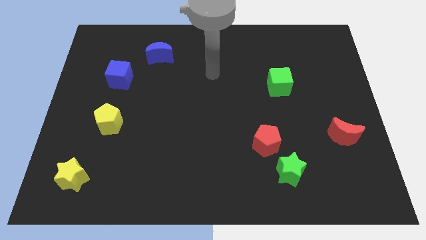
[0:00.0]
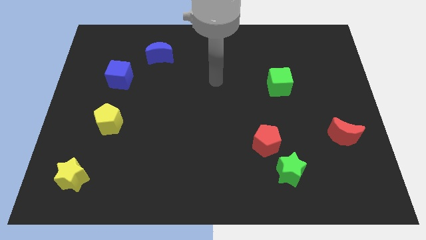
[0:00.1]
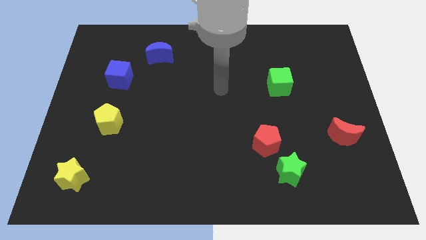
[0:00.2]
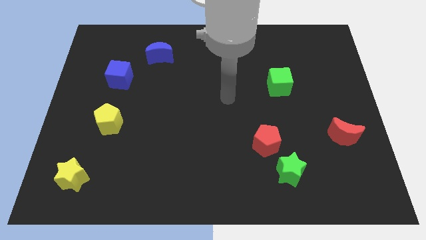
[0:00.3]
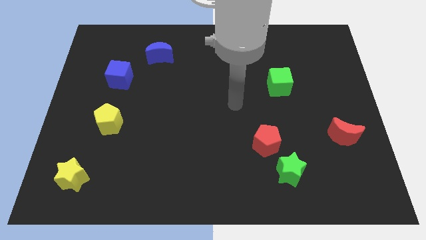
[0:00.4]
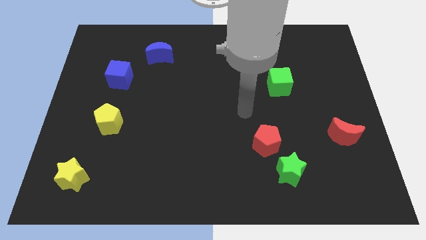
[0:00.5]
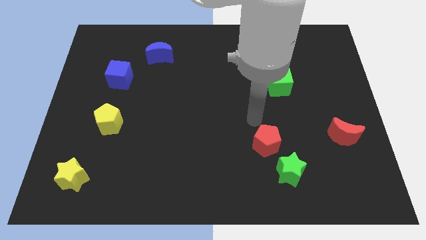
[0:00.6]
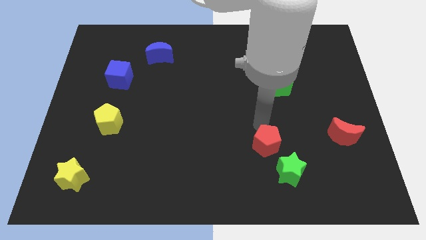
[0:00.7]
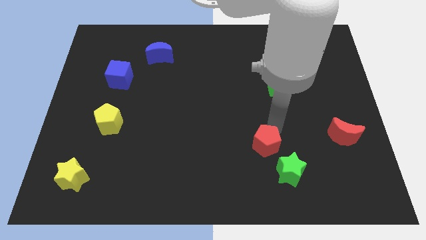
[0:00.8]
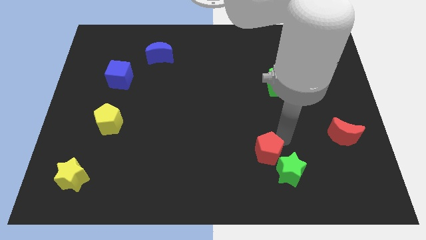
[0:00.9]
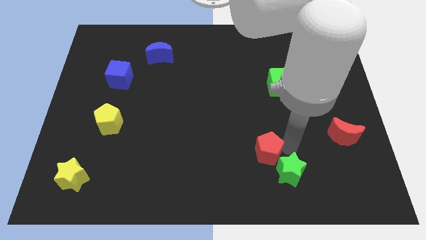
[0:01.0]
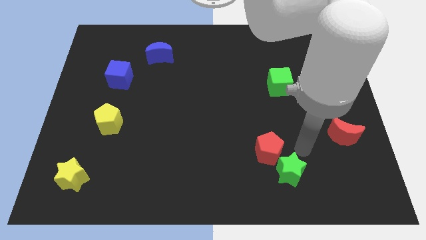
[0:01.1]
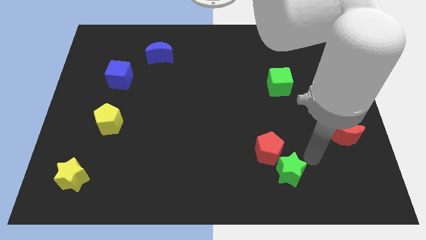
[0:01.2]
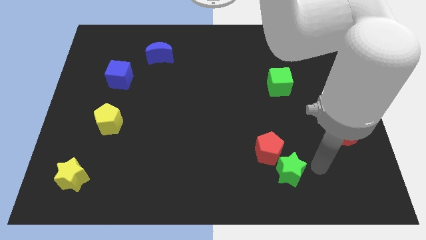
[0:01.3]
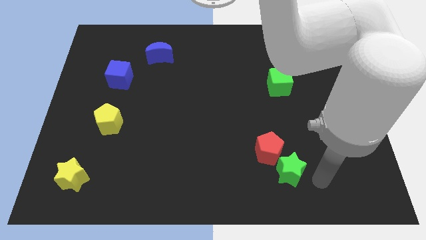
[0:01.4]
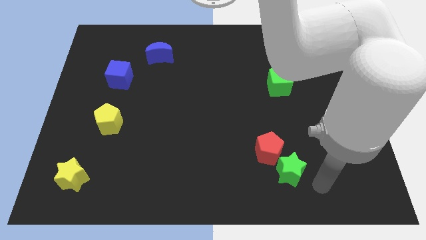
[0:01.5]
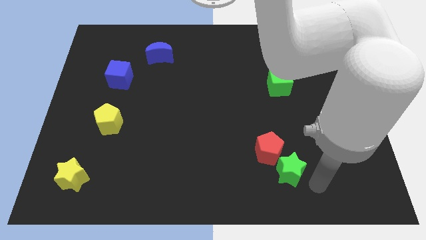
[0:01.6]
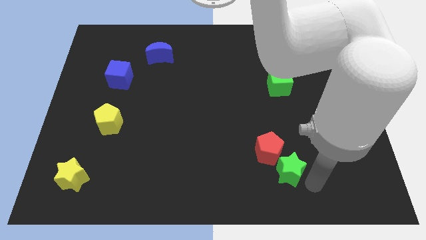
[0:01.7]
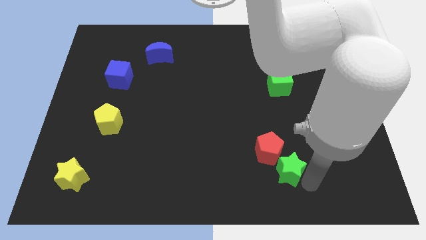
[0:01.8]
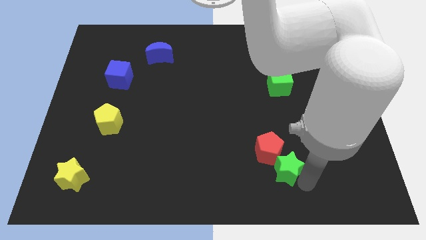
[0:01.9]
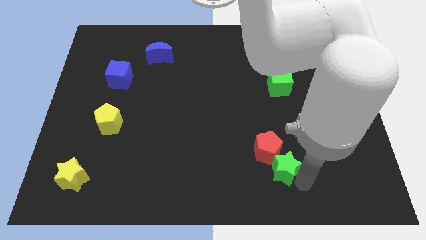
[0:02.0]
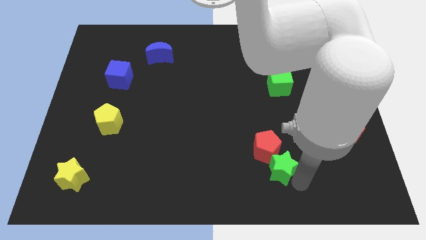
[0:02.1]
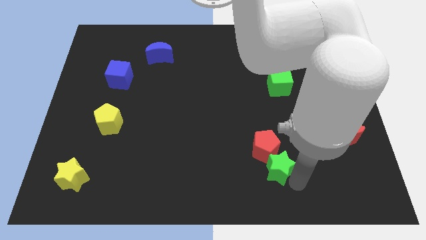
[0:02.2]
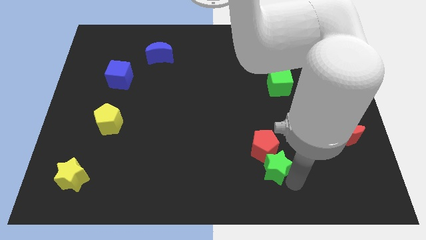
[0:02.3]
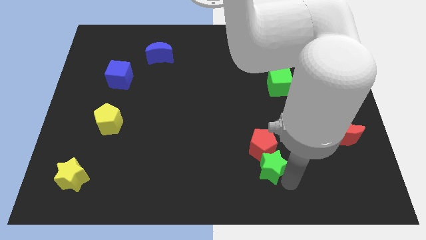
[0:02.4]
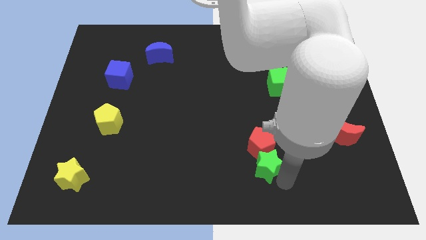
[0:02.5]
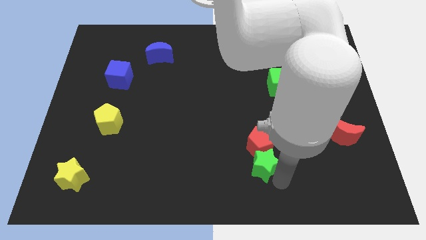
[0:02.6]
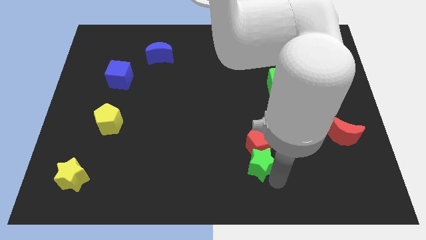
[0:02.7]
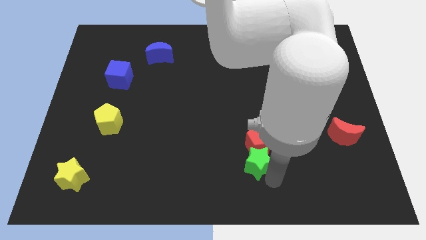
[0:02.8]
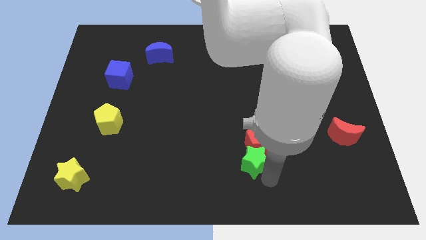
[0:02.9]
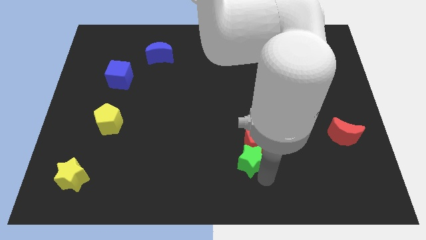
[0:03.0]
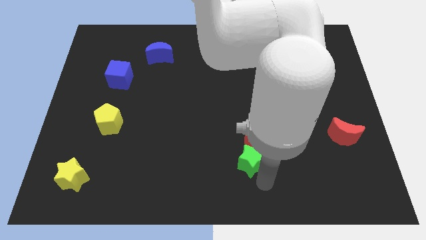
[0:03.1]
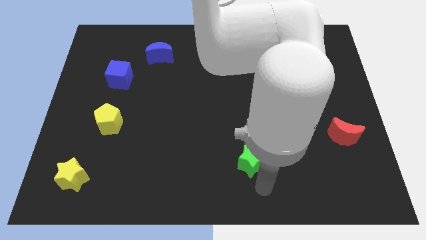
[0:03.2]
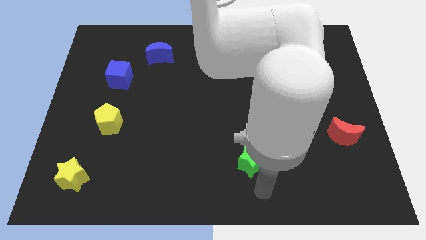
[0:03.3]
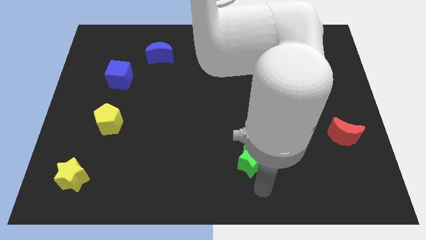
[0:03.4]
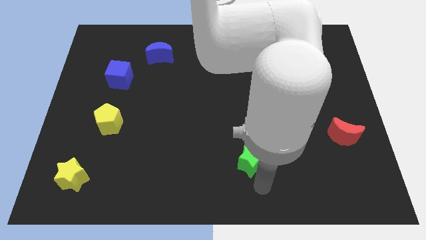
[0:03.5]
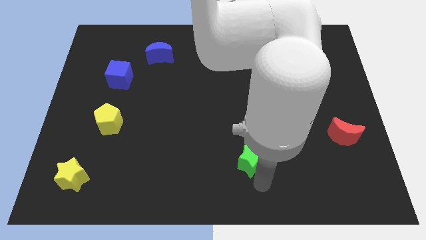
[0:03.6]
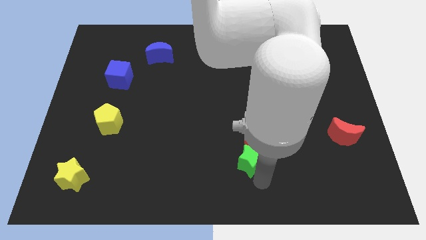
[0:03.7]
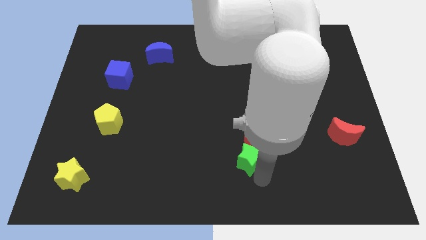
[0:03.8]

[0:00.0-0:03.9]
slide the green star somewhat diagonally up and to the left

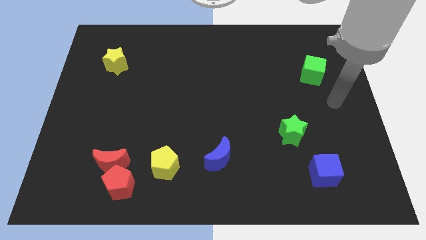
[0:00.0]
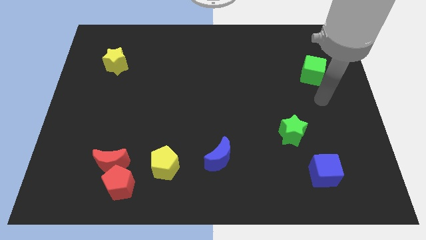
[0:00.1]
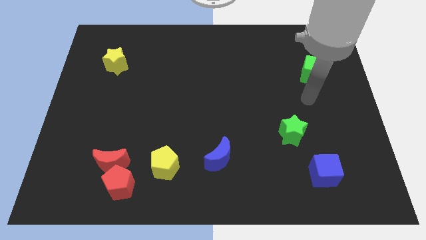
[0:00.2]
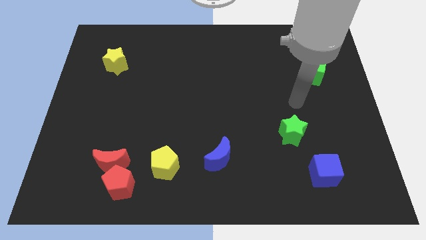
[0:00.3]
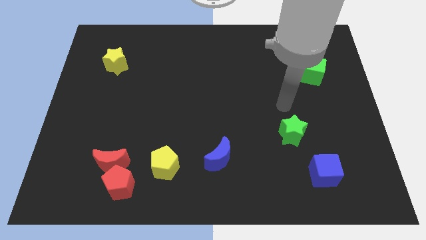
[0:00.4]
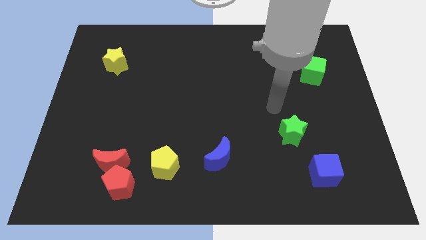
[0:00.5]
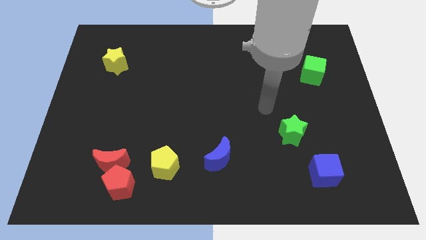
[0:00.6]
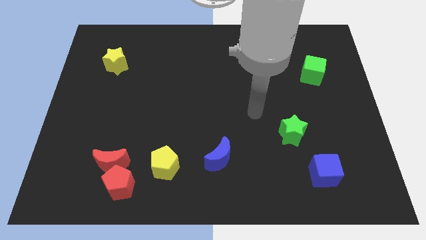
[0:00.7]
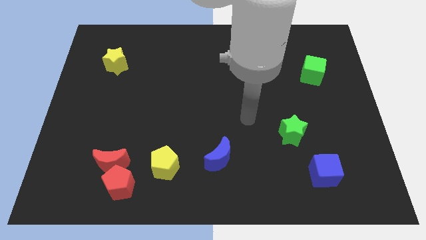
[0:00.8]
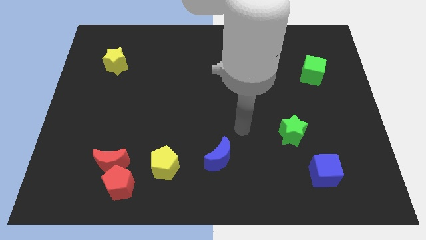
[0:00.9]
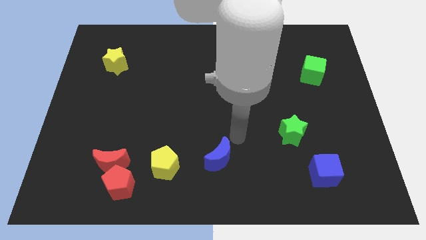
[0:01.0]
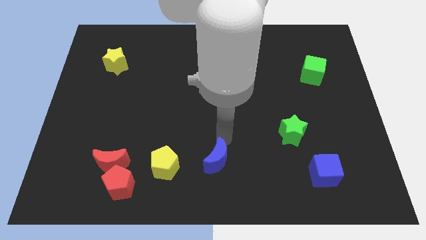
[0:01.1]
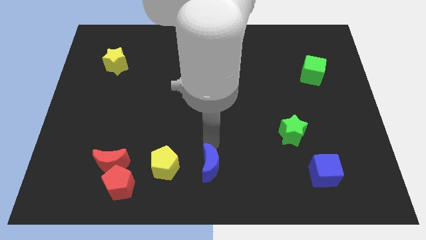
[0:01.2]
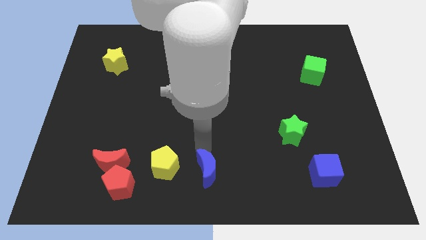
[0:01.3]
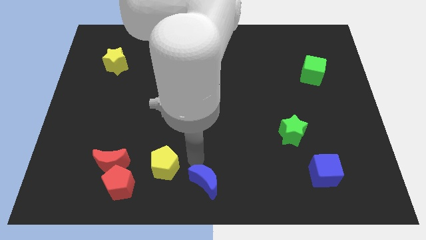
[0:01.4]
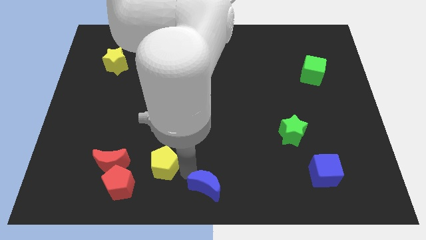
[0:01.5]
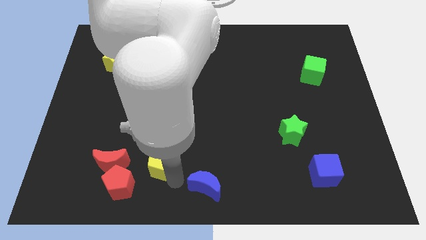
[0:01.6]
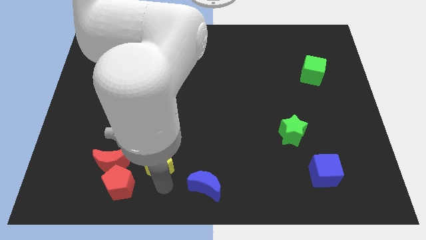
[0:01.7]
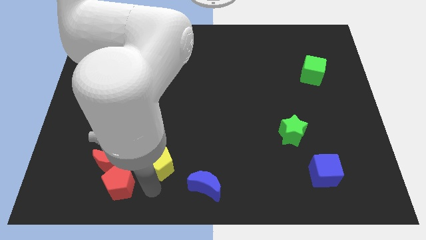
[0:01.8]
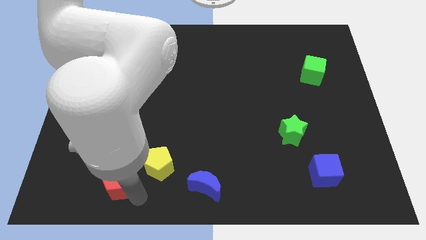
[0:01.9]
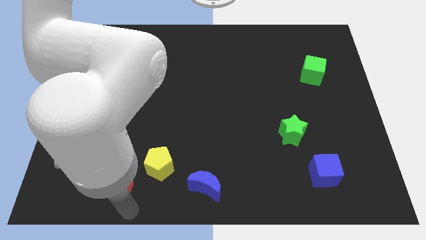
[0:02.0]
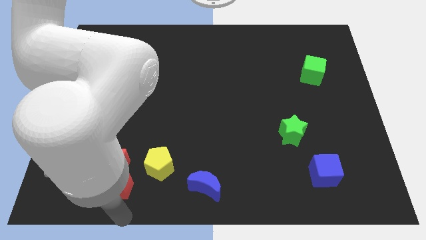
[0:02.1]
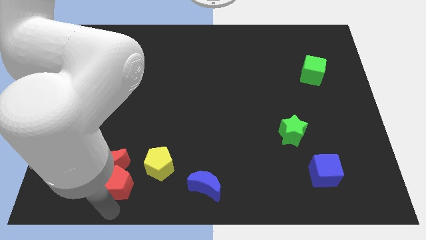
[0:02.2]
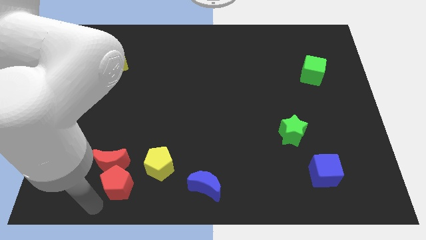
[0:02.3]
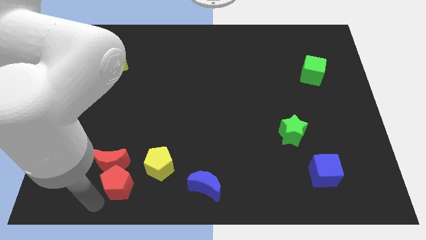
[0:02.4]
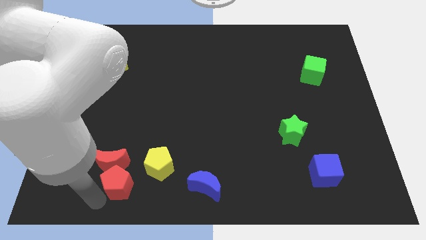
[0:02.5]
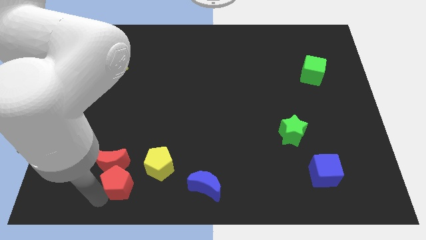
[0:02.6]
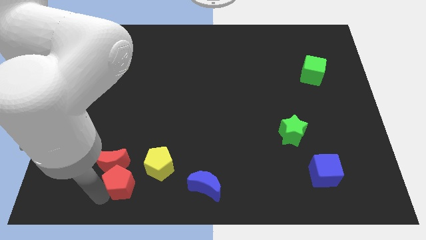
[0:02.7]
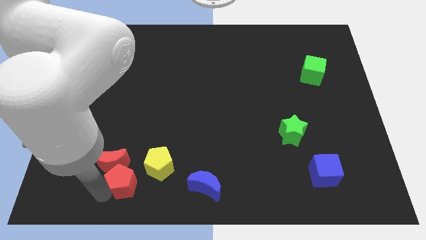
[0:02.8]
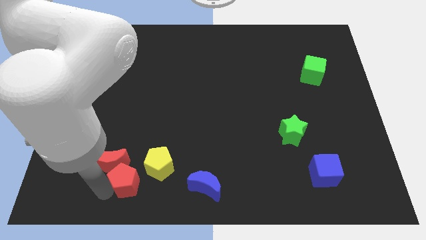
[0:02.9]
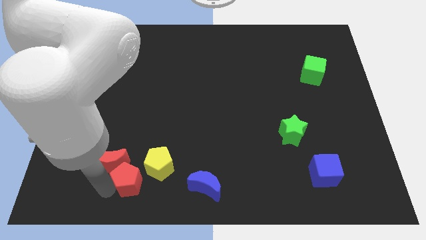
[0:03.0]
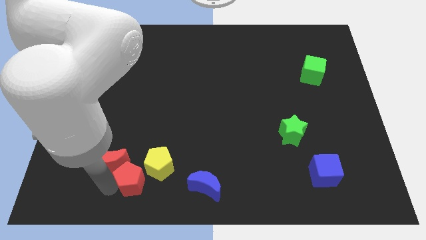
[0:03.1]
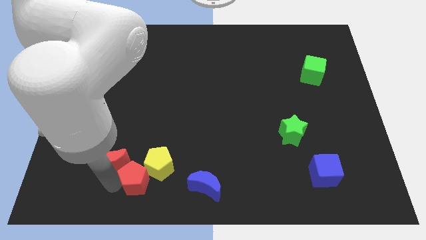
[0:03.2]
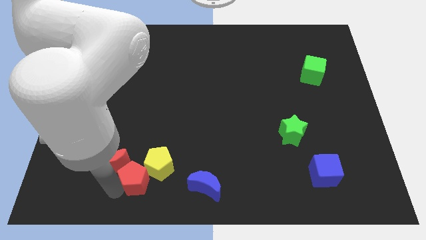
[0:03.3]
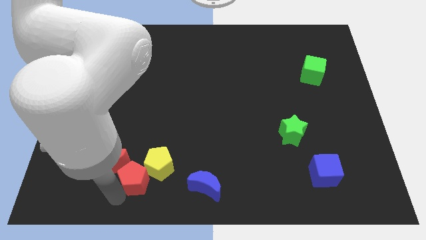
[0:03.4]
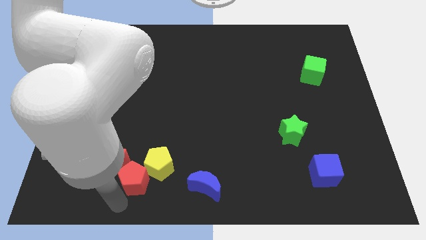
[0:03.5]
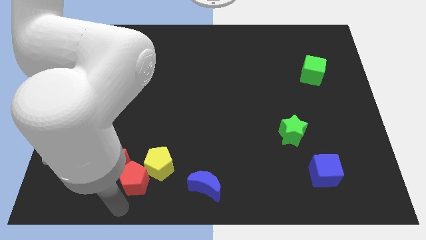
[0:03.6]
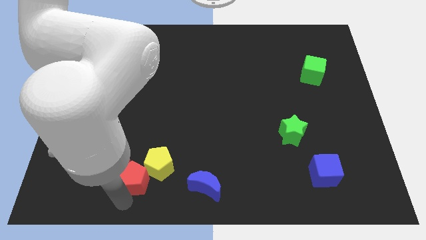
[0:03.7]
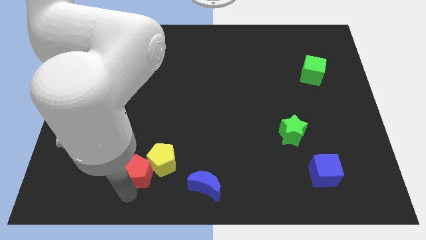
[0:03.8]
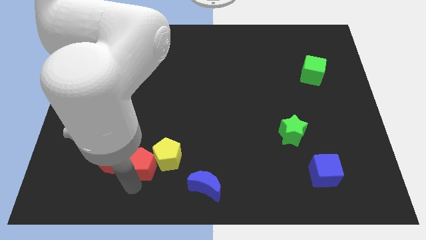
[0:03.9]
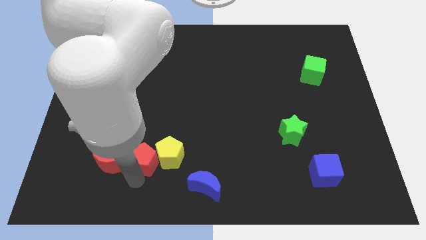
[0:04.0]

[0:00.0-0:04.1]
push the red pentagon diagonally upwards and to the right a little

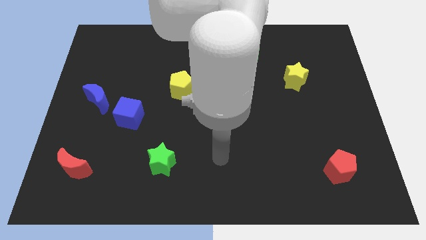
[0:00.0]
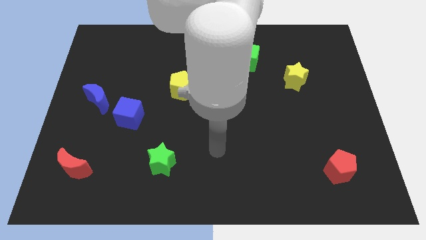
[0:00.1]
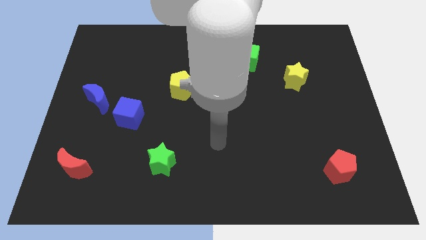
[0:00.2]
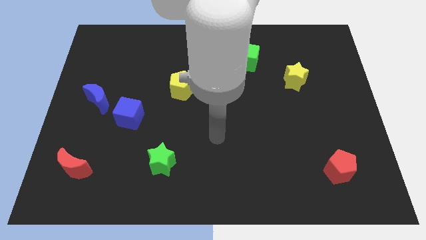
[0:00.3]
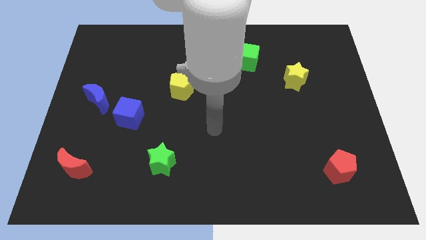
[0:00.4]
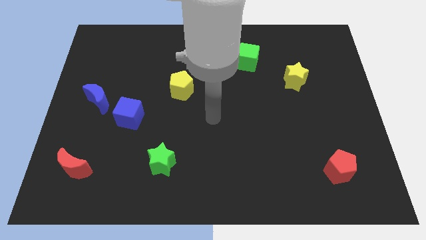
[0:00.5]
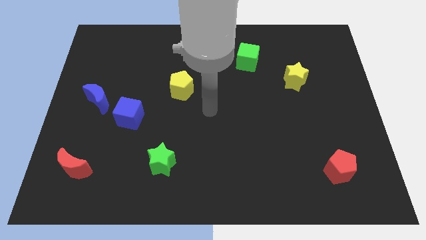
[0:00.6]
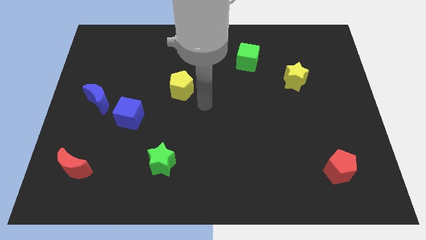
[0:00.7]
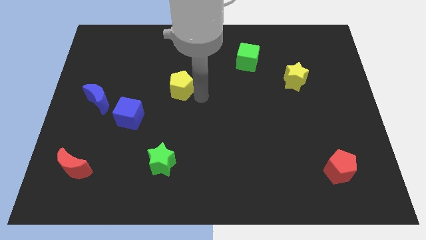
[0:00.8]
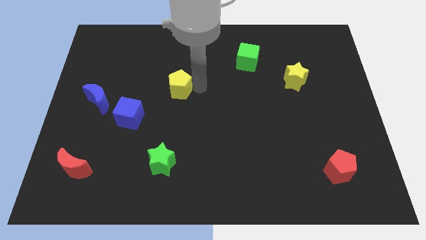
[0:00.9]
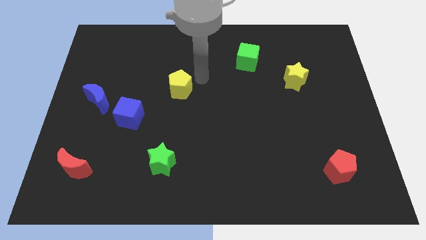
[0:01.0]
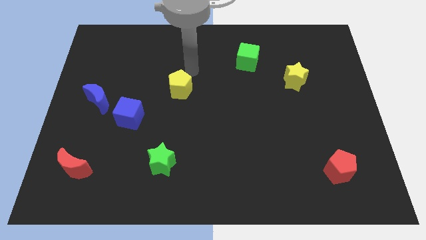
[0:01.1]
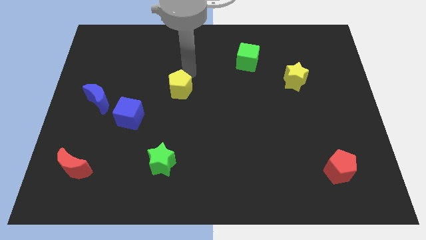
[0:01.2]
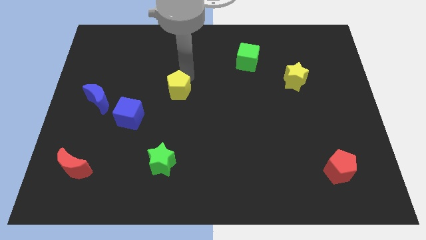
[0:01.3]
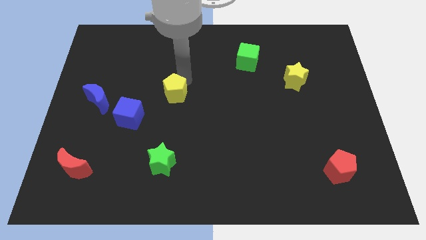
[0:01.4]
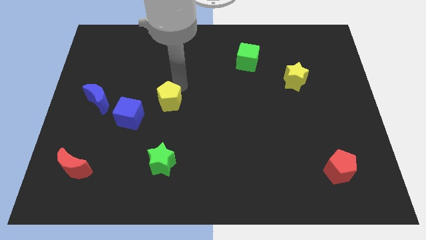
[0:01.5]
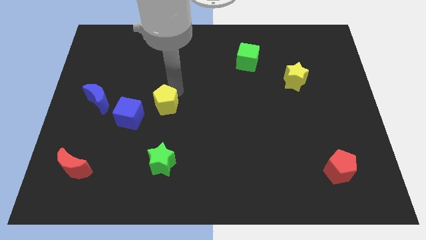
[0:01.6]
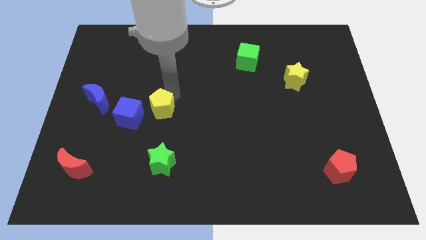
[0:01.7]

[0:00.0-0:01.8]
slide the yellow pentagon downwards and to the left a little bit
